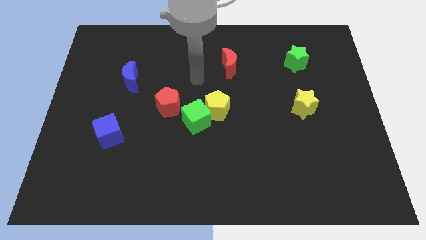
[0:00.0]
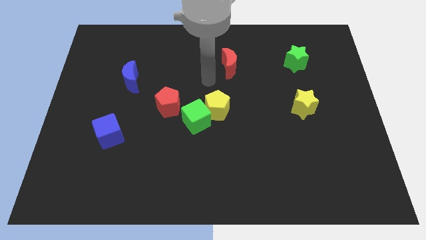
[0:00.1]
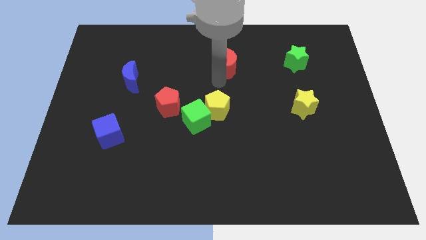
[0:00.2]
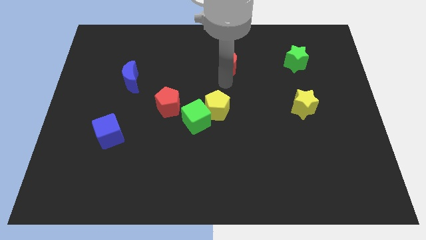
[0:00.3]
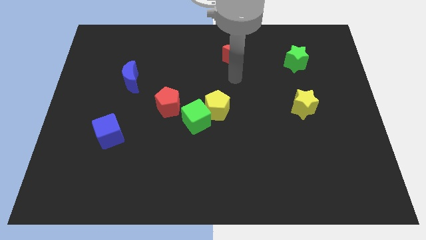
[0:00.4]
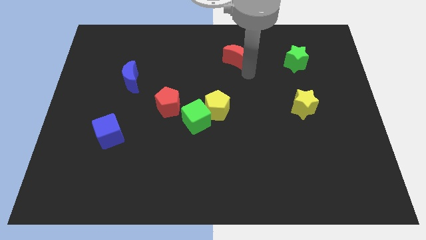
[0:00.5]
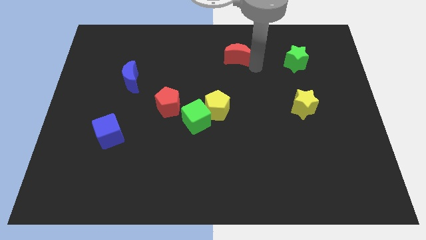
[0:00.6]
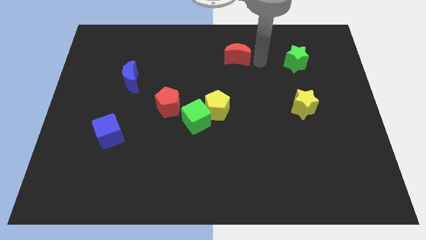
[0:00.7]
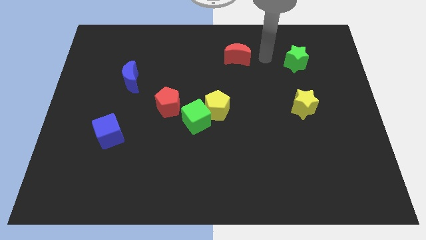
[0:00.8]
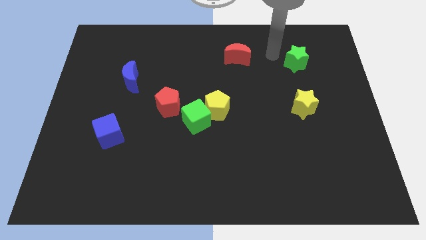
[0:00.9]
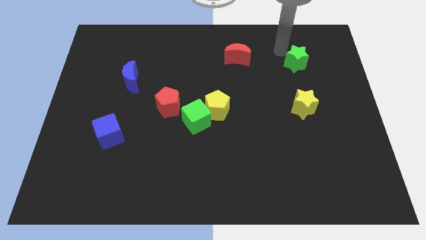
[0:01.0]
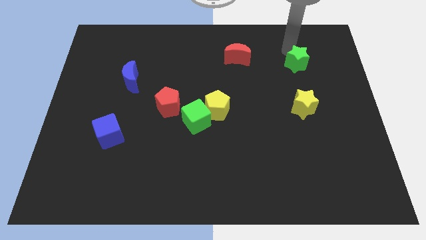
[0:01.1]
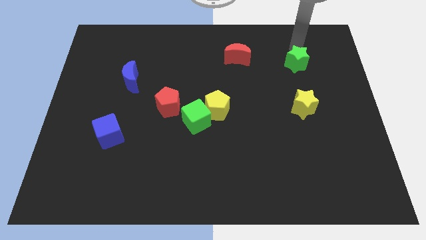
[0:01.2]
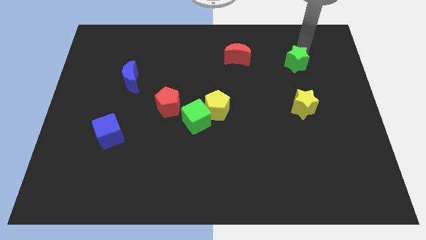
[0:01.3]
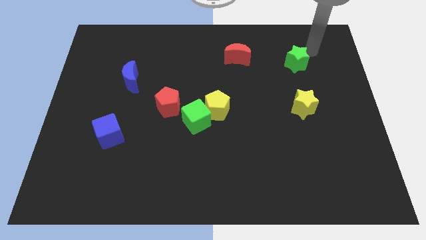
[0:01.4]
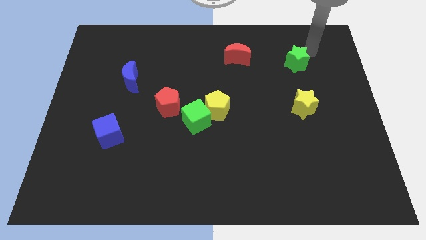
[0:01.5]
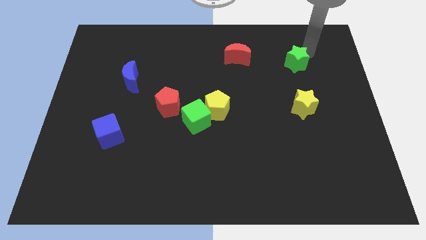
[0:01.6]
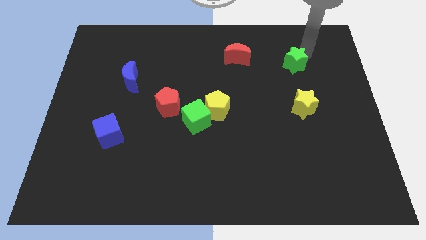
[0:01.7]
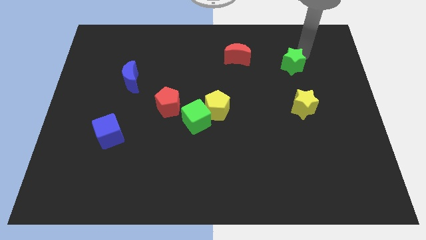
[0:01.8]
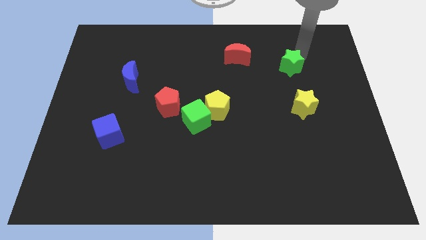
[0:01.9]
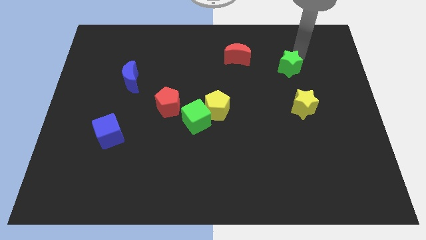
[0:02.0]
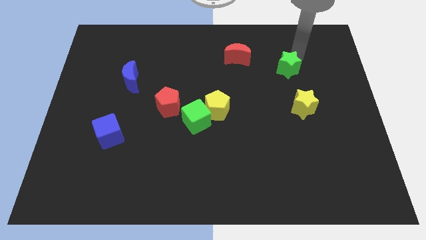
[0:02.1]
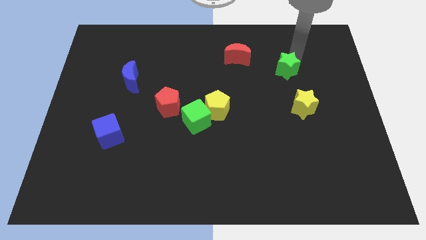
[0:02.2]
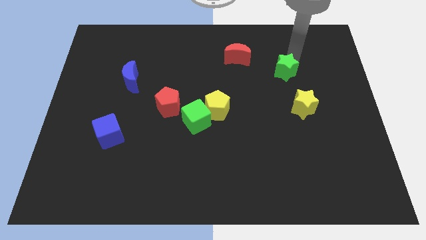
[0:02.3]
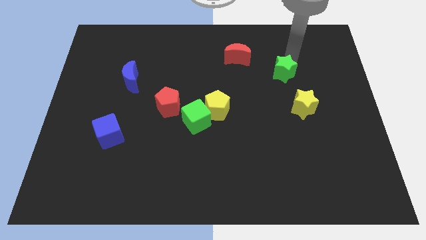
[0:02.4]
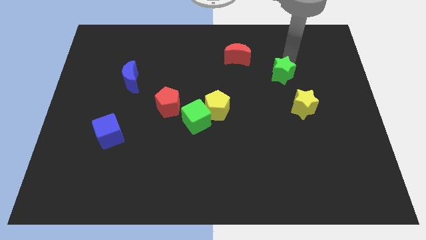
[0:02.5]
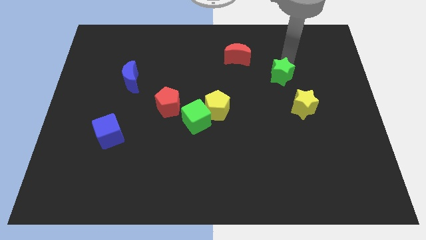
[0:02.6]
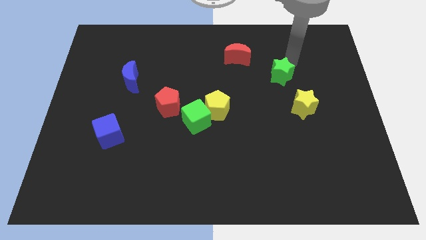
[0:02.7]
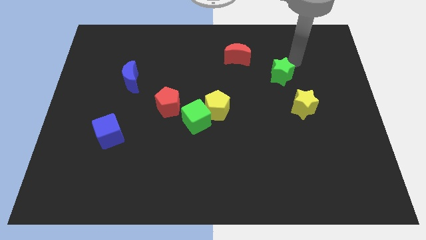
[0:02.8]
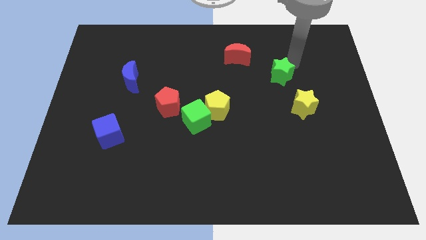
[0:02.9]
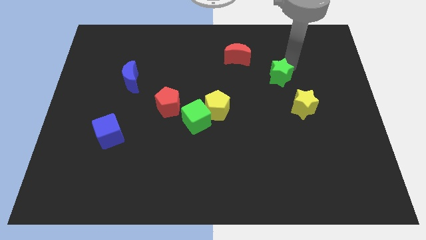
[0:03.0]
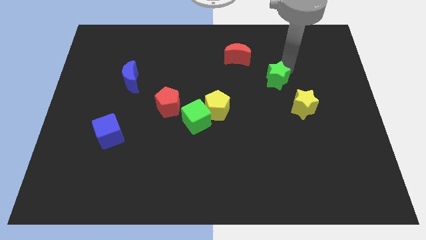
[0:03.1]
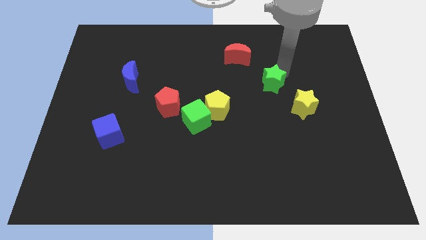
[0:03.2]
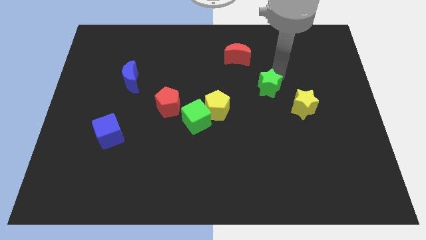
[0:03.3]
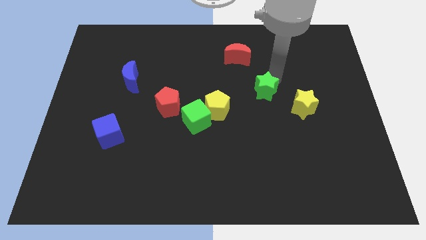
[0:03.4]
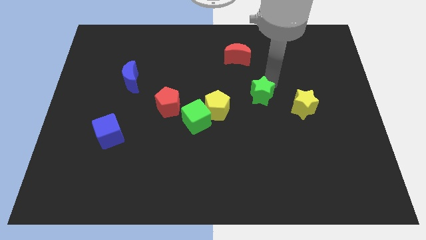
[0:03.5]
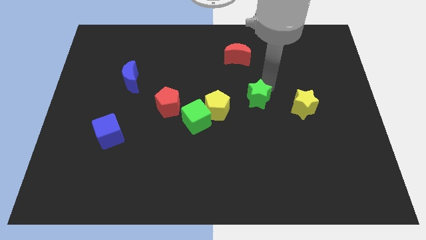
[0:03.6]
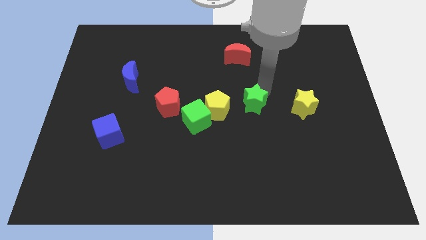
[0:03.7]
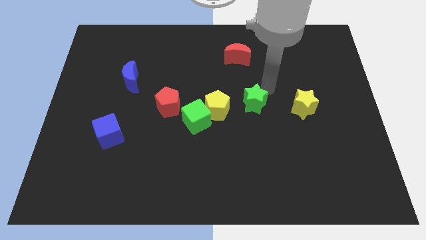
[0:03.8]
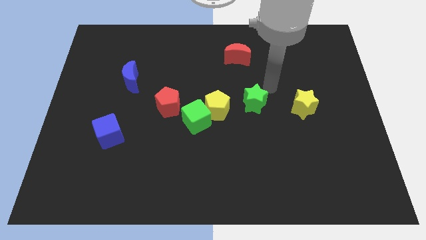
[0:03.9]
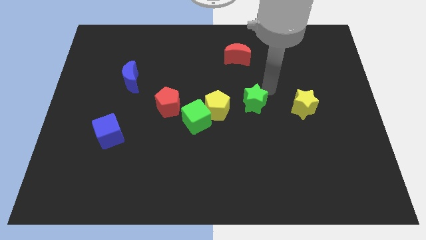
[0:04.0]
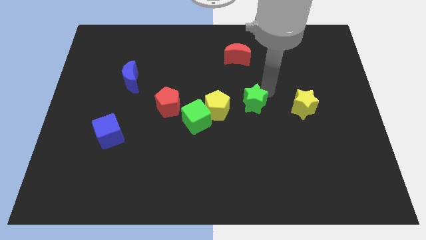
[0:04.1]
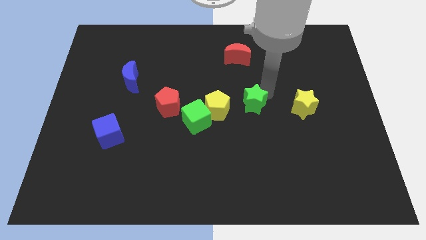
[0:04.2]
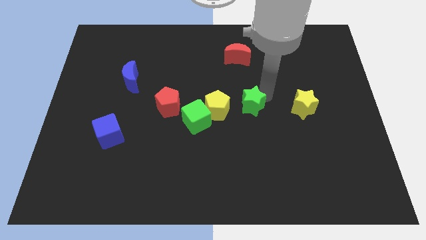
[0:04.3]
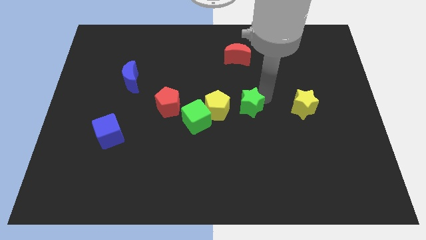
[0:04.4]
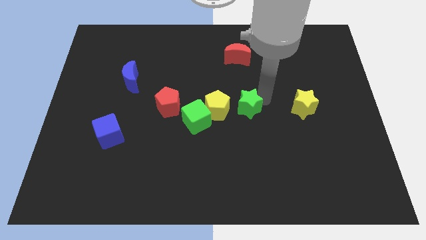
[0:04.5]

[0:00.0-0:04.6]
move the green star downwards and left

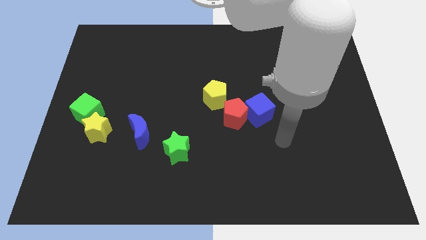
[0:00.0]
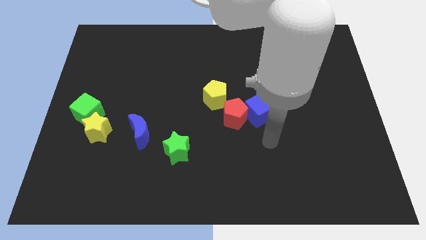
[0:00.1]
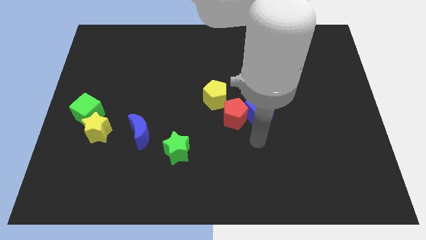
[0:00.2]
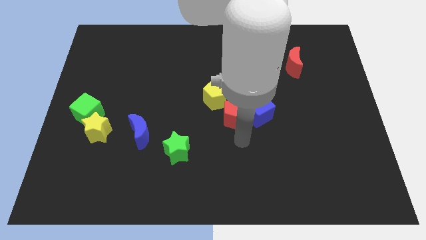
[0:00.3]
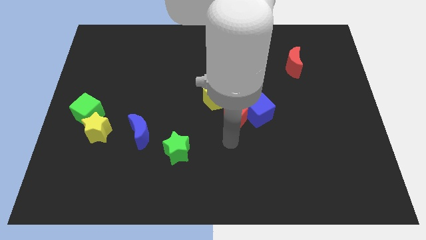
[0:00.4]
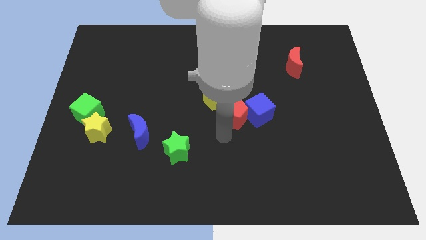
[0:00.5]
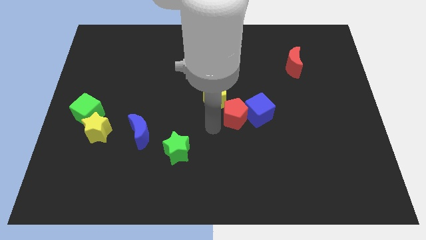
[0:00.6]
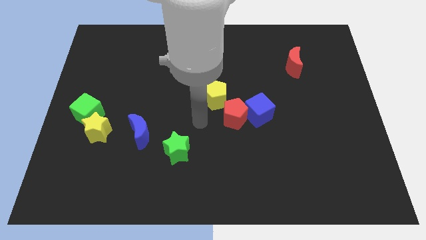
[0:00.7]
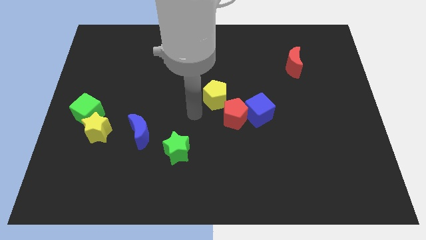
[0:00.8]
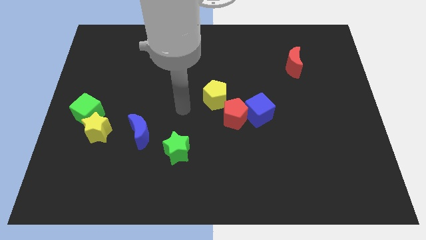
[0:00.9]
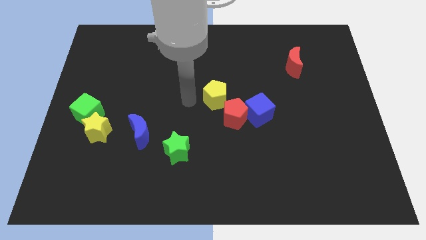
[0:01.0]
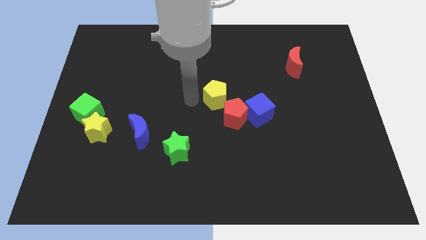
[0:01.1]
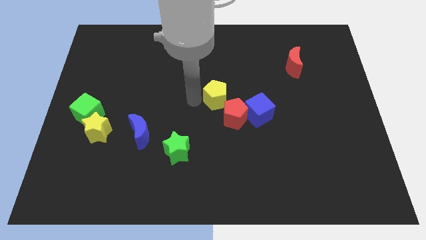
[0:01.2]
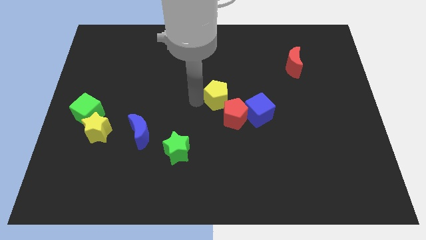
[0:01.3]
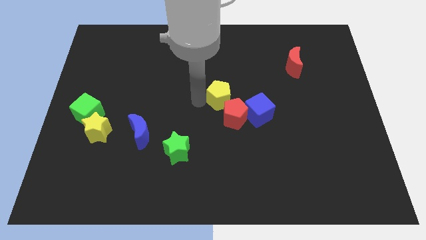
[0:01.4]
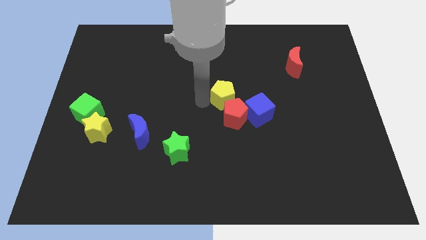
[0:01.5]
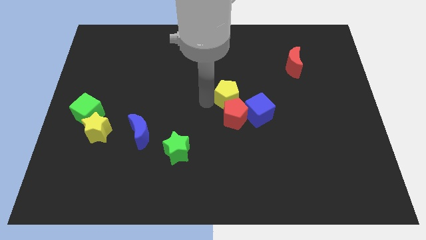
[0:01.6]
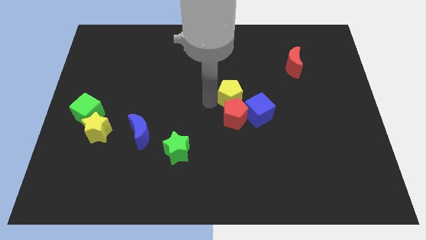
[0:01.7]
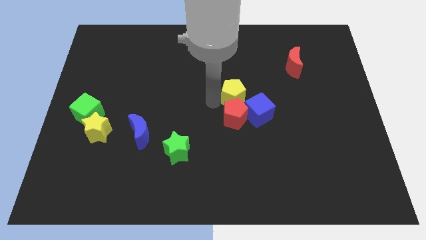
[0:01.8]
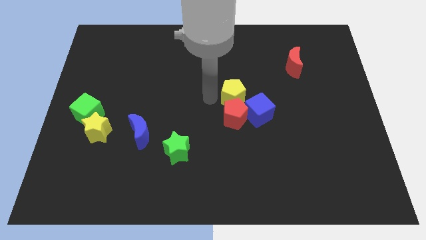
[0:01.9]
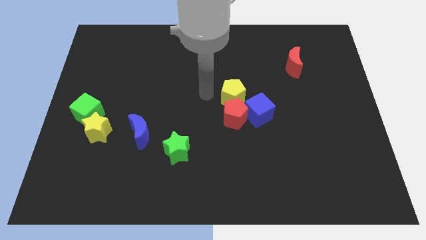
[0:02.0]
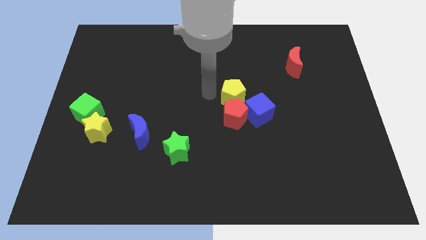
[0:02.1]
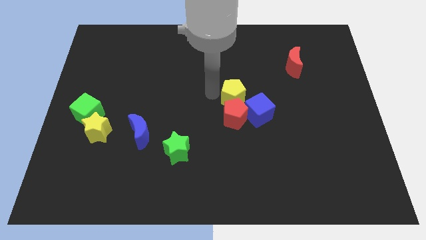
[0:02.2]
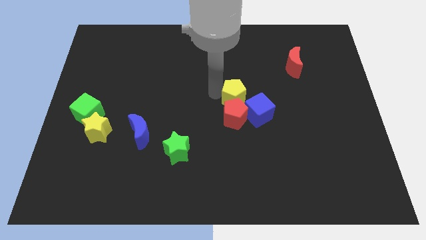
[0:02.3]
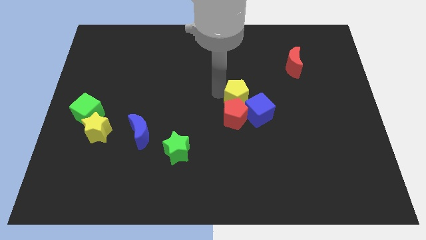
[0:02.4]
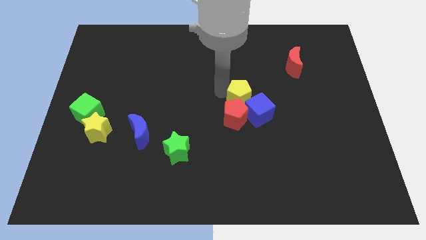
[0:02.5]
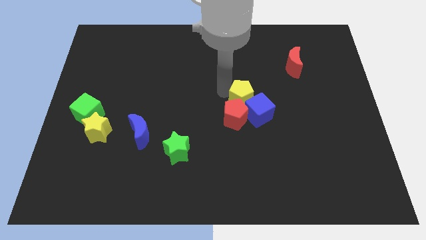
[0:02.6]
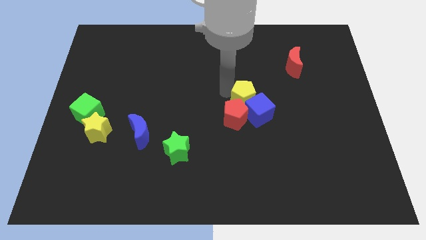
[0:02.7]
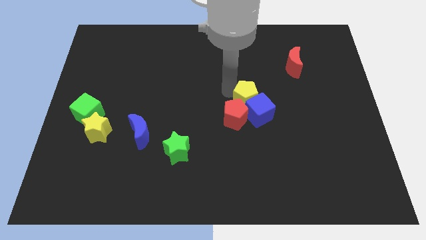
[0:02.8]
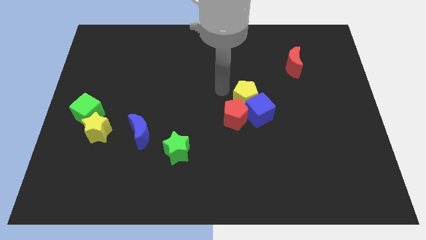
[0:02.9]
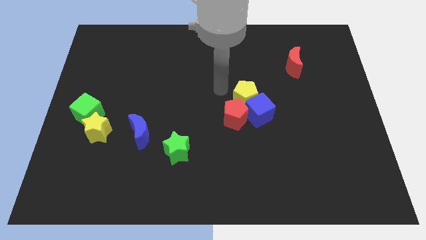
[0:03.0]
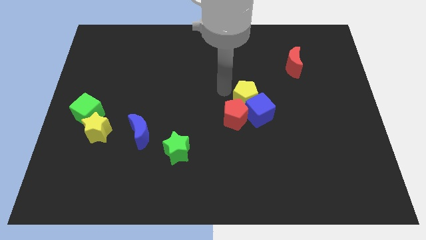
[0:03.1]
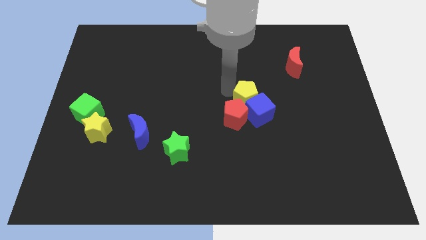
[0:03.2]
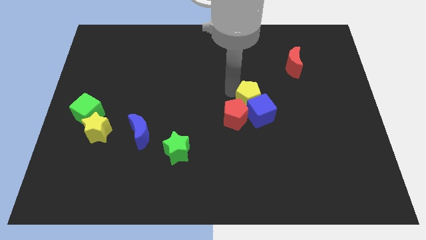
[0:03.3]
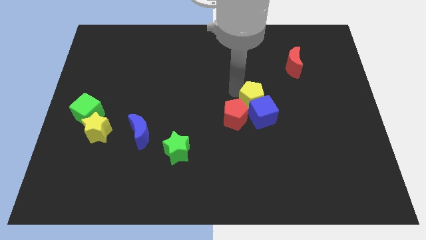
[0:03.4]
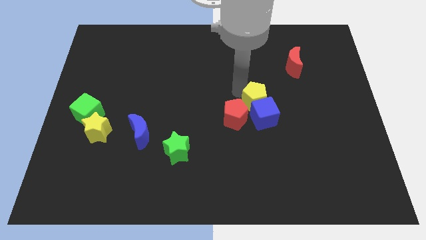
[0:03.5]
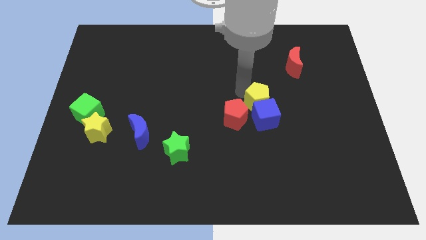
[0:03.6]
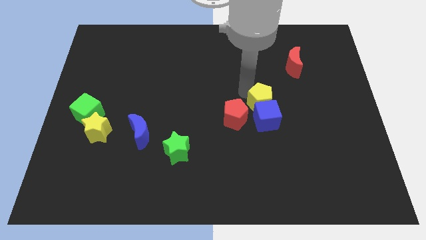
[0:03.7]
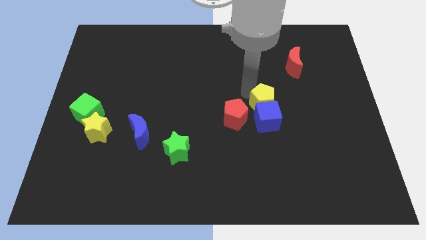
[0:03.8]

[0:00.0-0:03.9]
move the yellow pentagon slightly diagonally down and to the right
